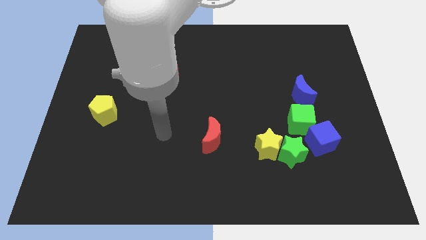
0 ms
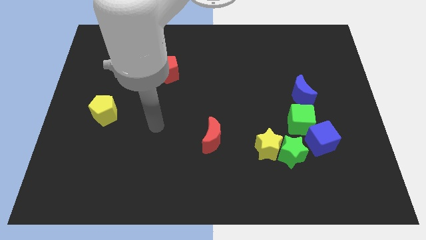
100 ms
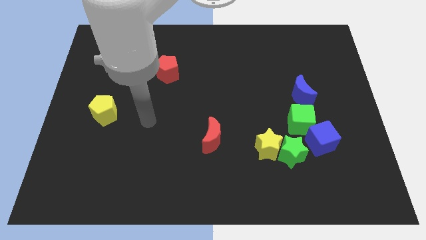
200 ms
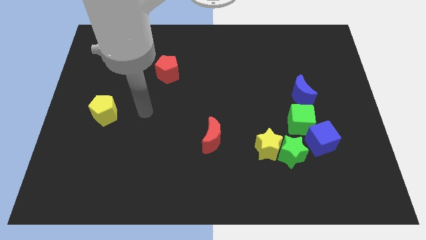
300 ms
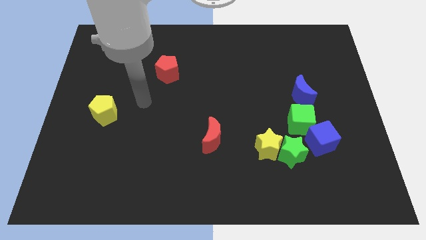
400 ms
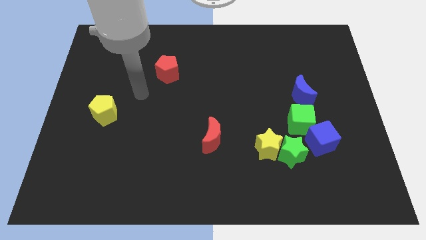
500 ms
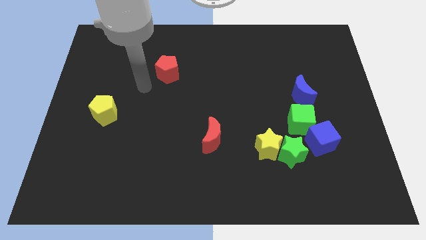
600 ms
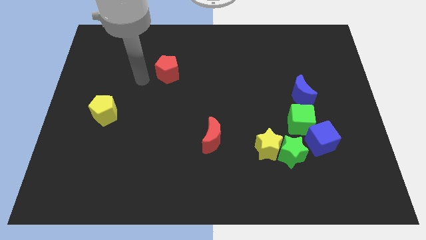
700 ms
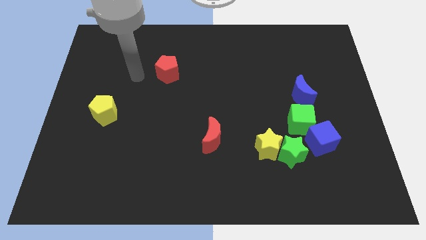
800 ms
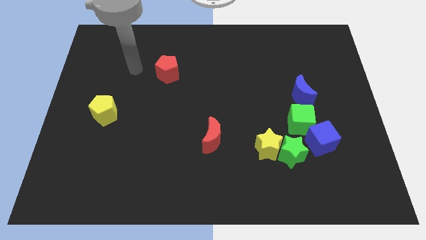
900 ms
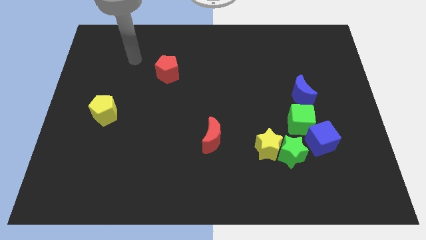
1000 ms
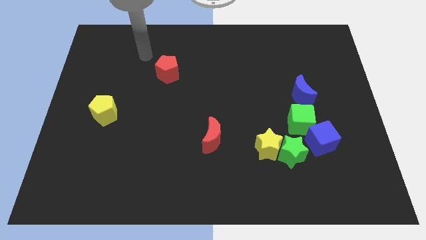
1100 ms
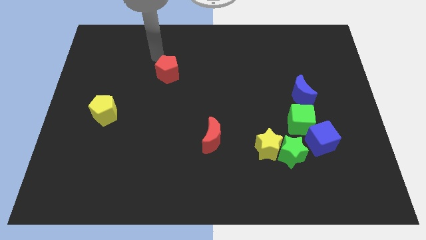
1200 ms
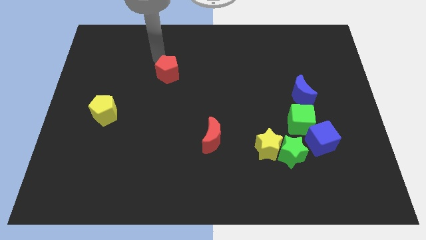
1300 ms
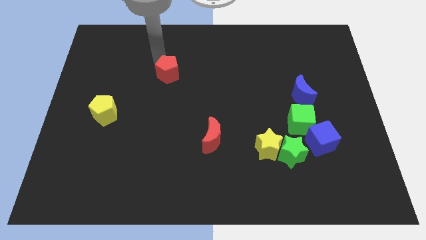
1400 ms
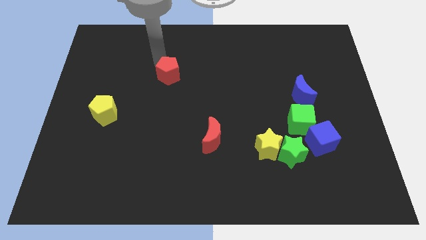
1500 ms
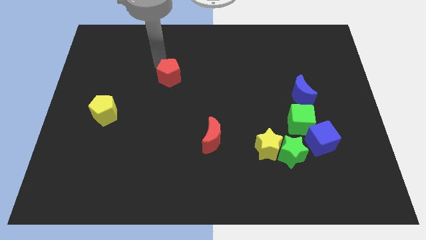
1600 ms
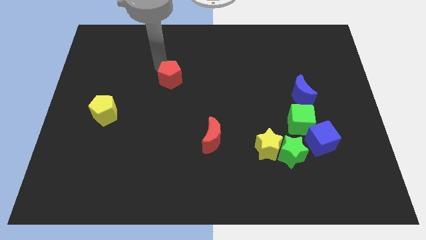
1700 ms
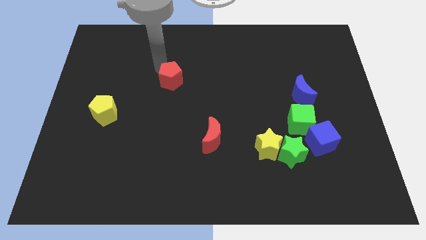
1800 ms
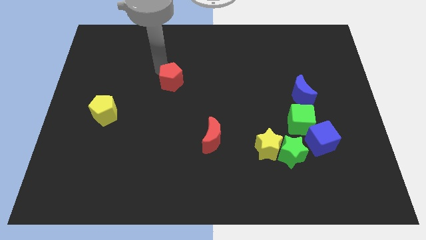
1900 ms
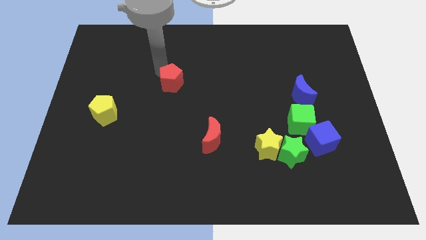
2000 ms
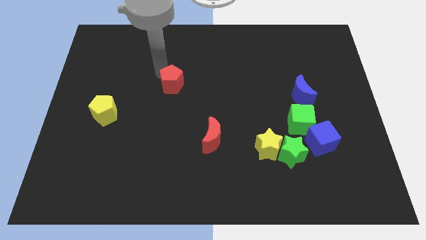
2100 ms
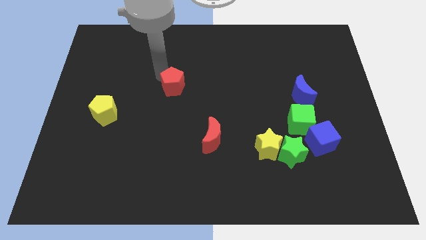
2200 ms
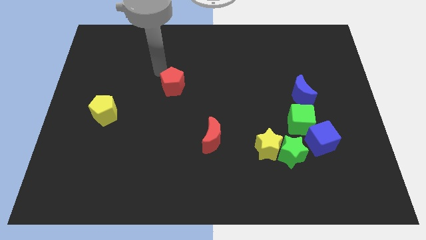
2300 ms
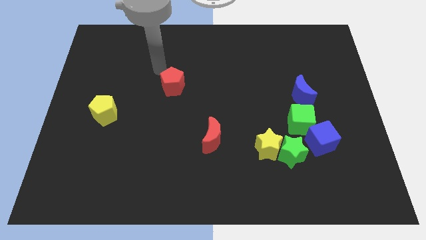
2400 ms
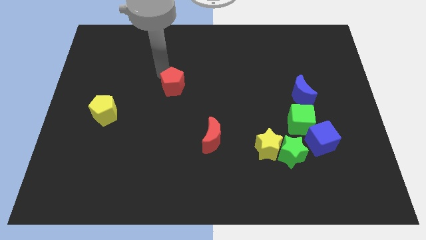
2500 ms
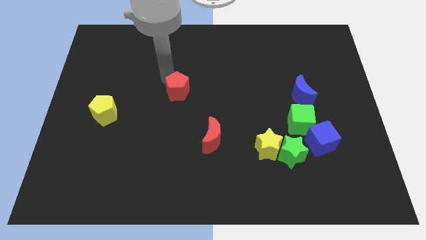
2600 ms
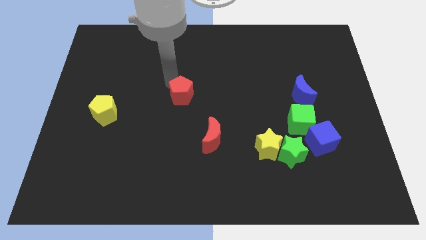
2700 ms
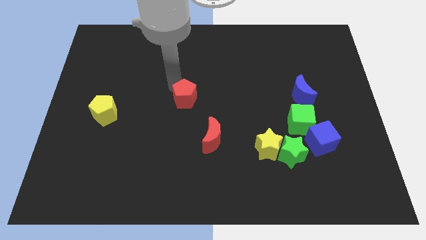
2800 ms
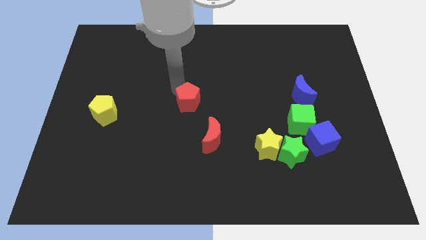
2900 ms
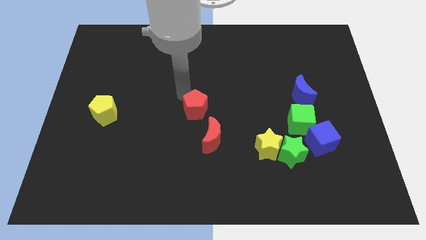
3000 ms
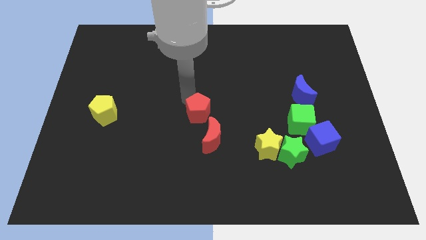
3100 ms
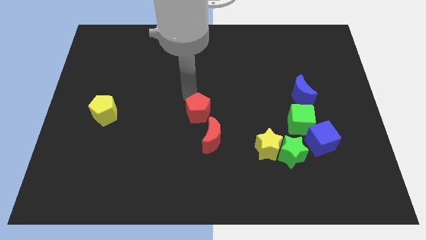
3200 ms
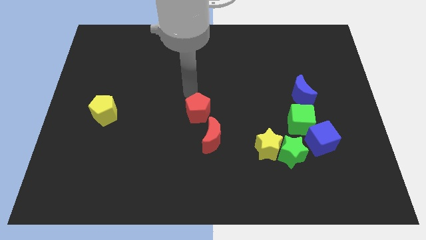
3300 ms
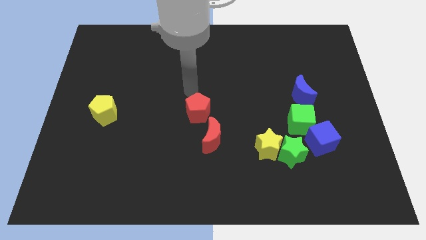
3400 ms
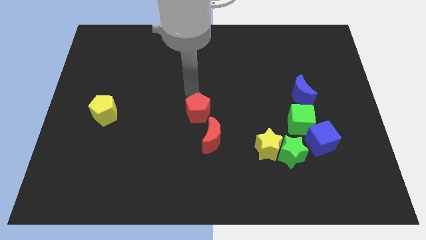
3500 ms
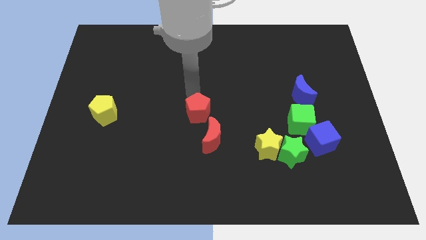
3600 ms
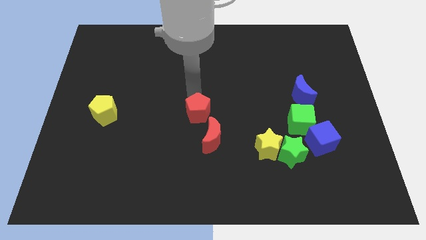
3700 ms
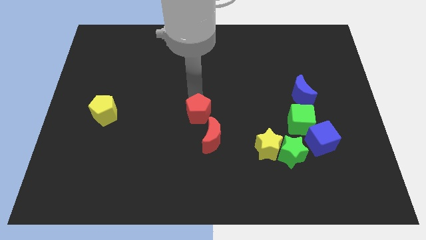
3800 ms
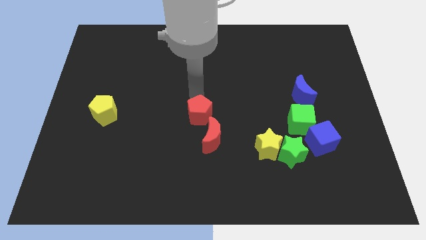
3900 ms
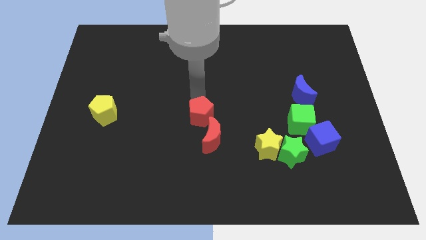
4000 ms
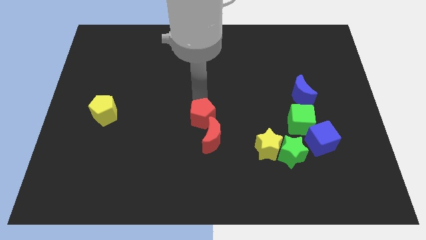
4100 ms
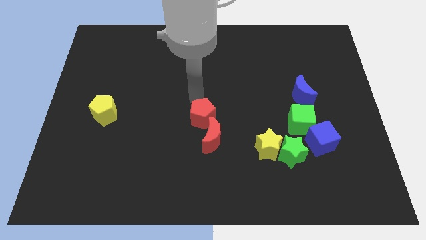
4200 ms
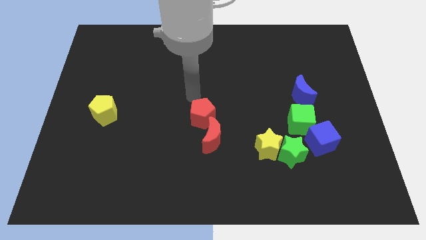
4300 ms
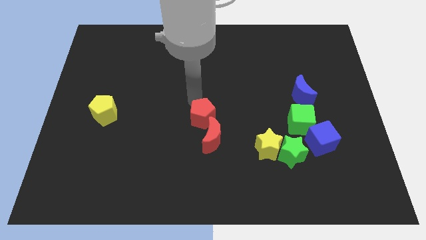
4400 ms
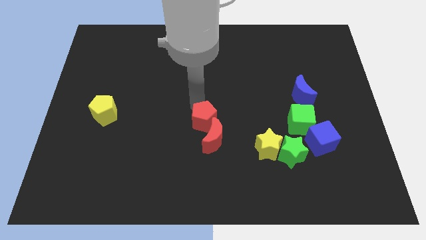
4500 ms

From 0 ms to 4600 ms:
put the red pentagon to the red moon

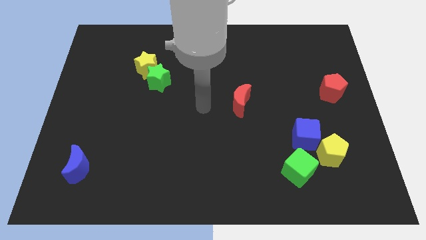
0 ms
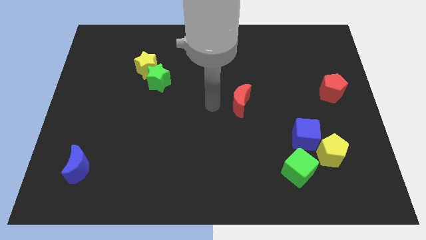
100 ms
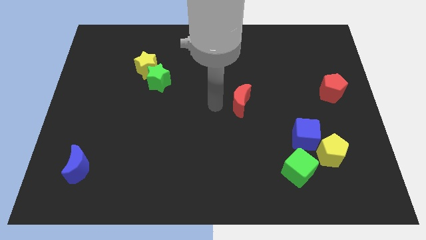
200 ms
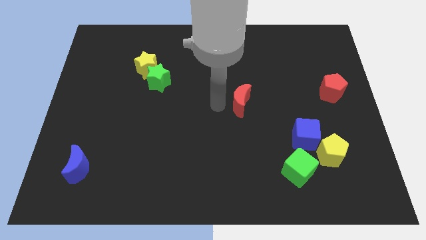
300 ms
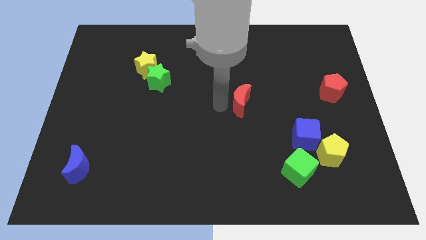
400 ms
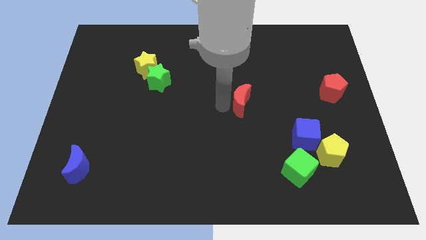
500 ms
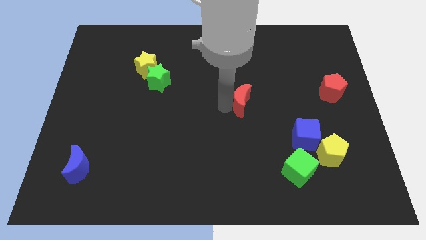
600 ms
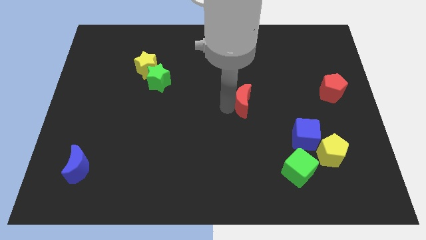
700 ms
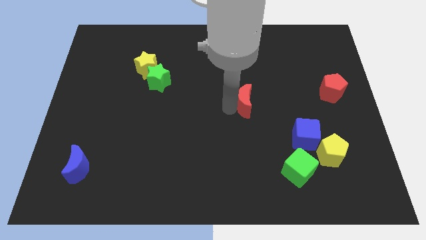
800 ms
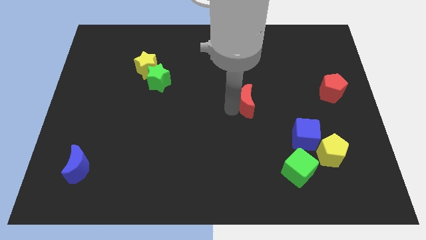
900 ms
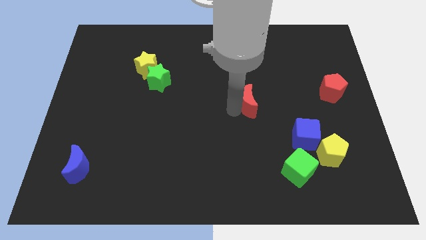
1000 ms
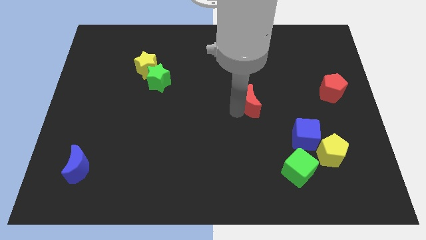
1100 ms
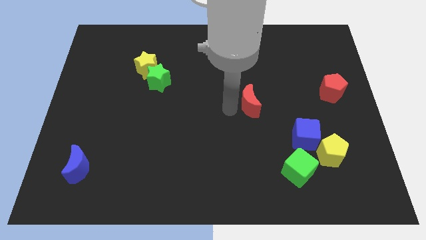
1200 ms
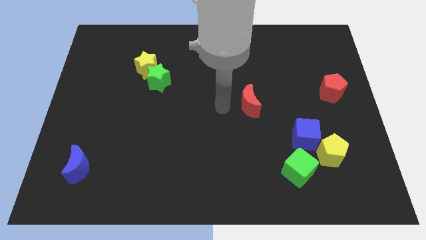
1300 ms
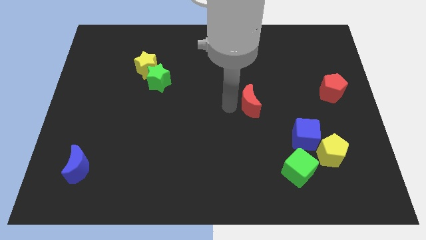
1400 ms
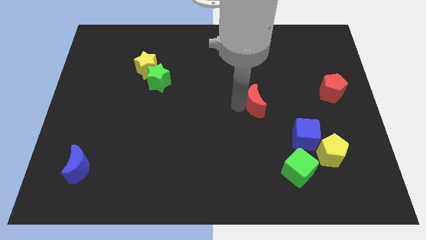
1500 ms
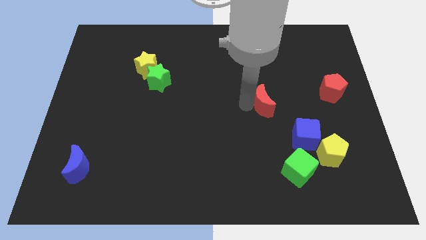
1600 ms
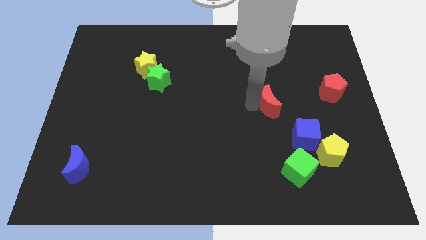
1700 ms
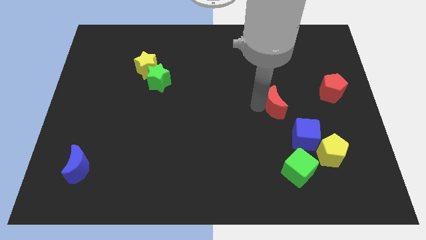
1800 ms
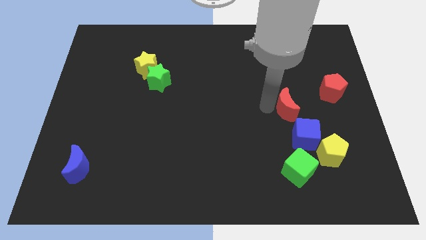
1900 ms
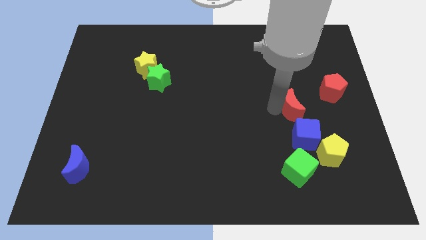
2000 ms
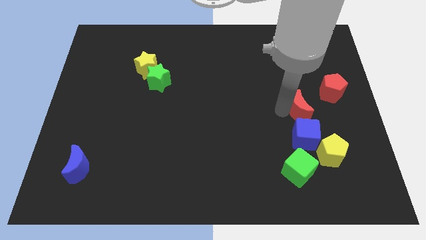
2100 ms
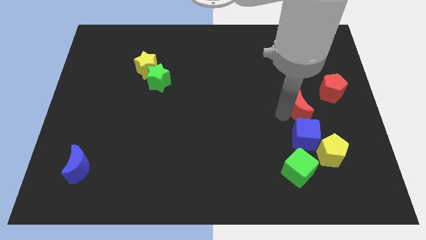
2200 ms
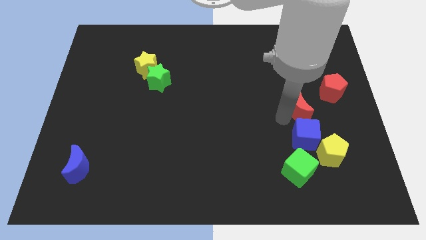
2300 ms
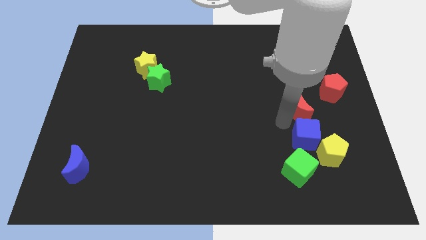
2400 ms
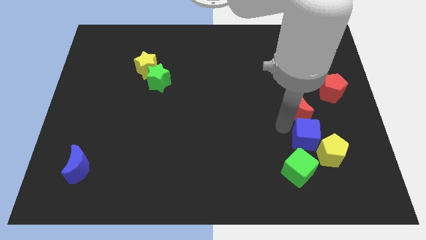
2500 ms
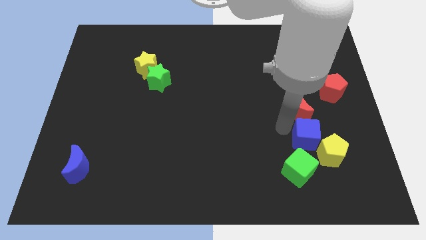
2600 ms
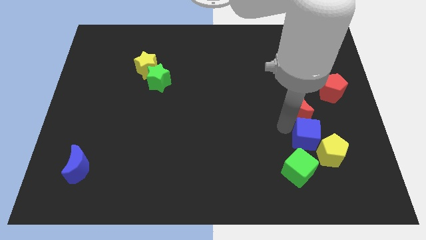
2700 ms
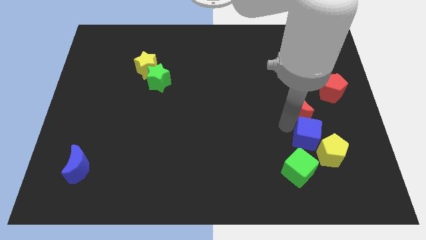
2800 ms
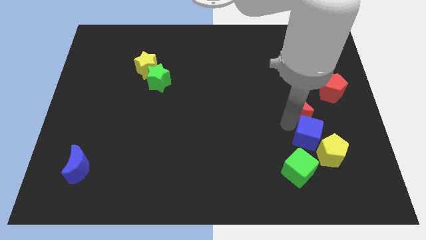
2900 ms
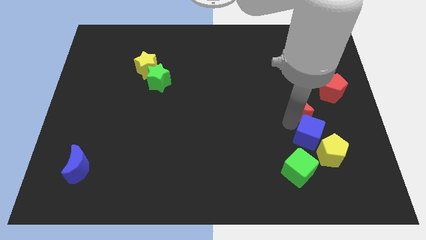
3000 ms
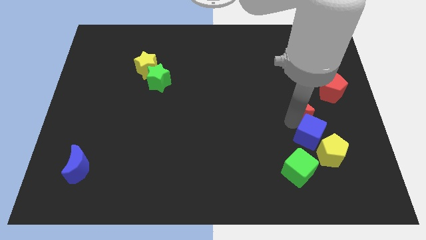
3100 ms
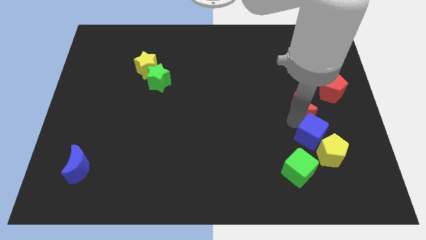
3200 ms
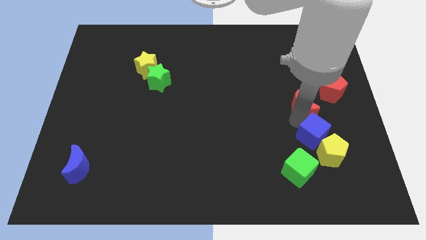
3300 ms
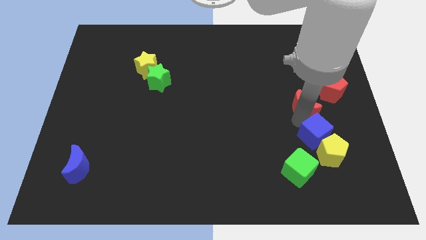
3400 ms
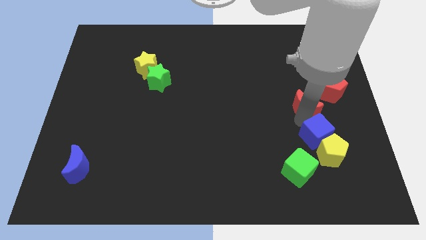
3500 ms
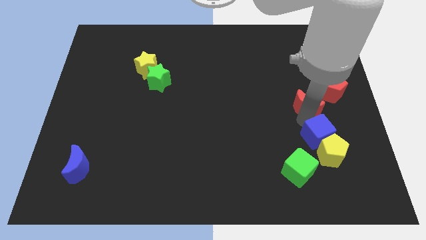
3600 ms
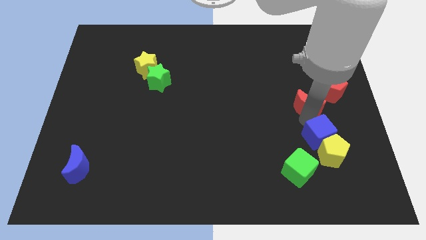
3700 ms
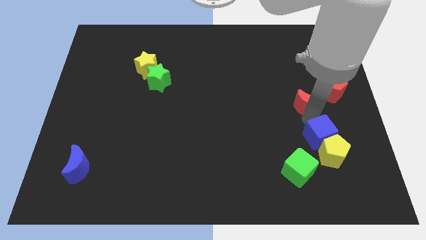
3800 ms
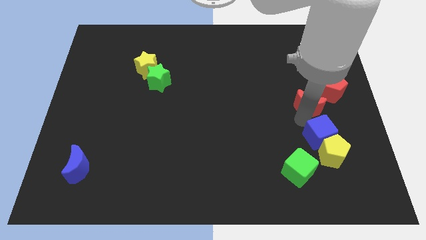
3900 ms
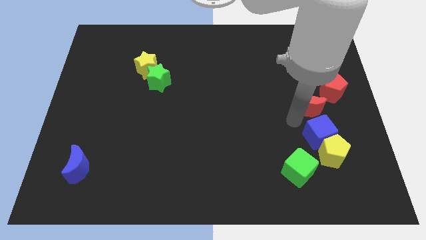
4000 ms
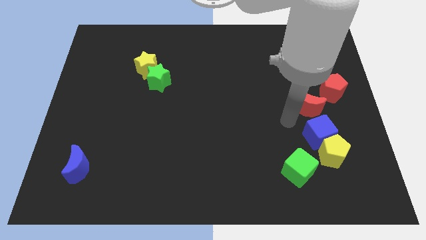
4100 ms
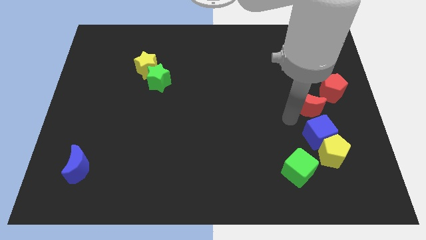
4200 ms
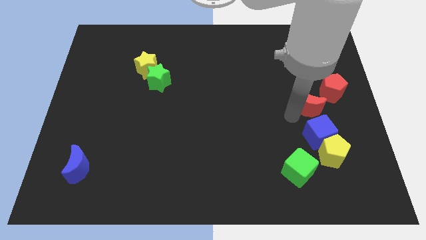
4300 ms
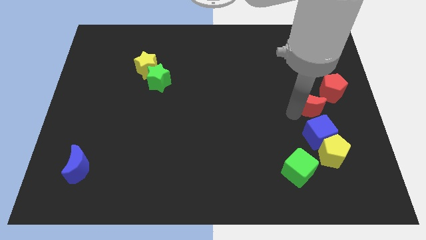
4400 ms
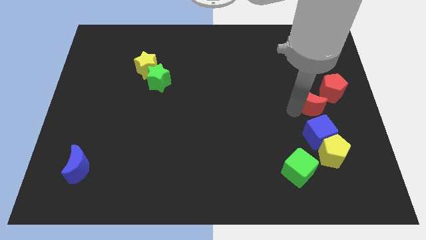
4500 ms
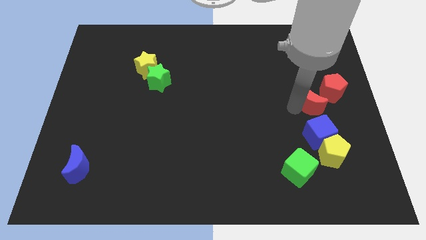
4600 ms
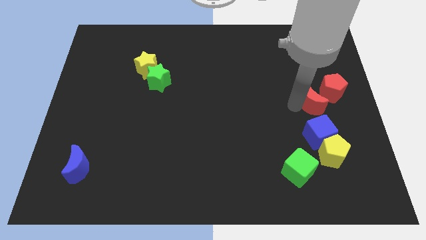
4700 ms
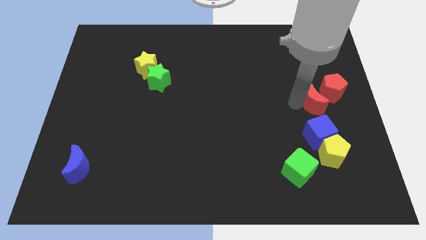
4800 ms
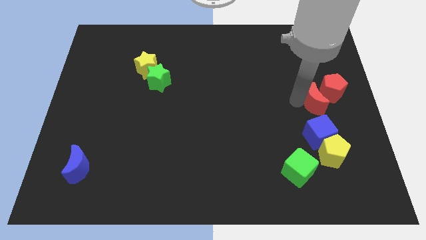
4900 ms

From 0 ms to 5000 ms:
move the red moon close to the red pentagon
